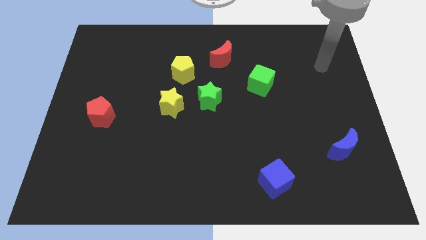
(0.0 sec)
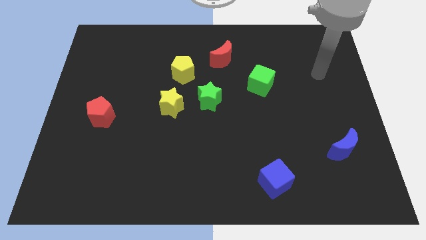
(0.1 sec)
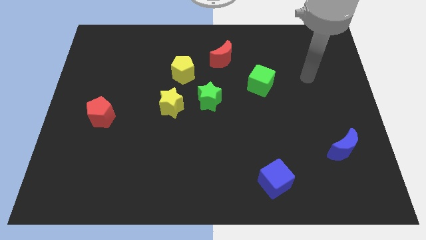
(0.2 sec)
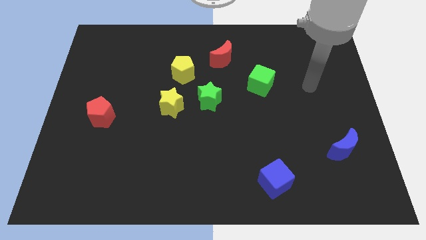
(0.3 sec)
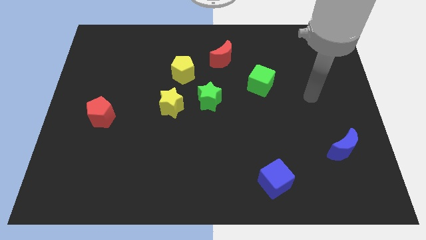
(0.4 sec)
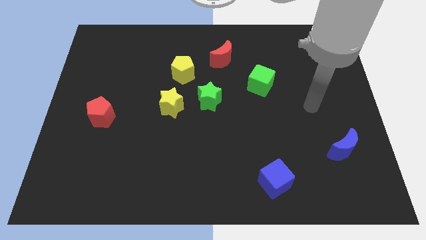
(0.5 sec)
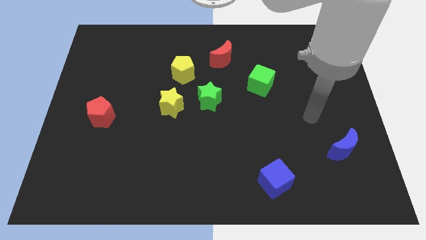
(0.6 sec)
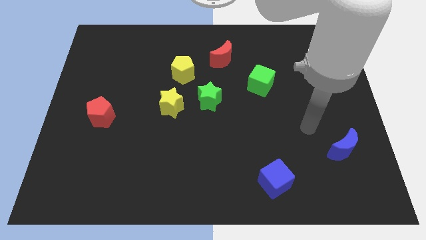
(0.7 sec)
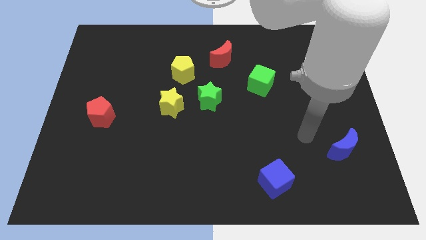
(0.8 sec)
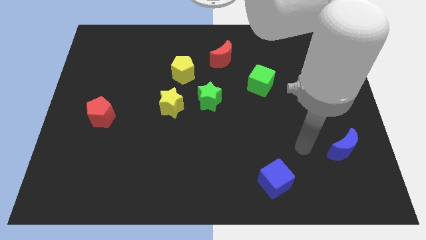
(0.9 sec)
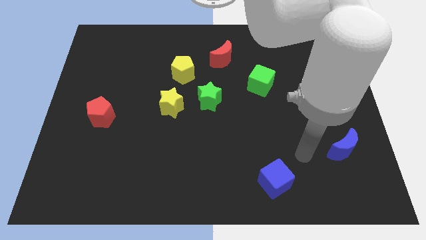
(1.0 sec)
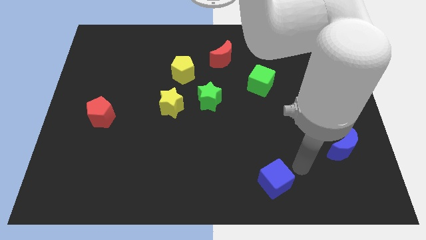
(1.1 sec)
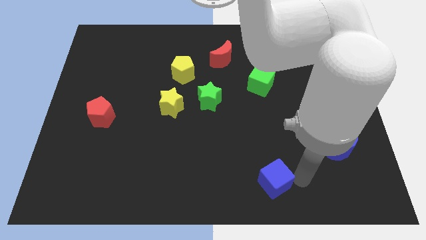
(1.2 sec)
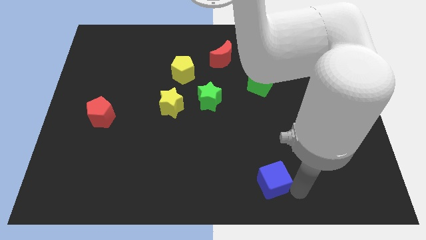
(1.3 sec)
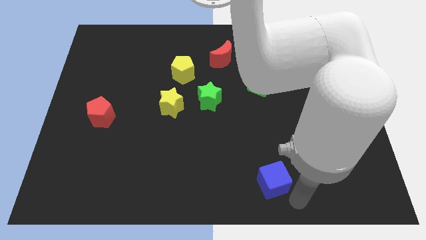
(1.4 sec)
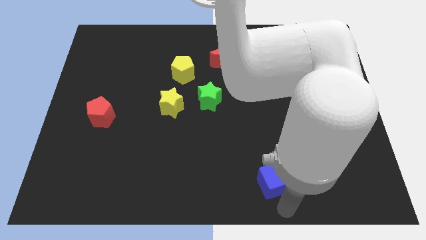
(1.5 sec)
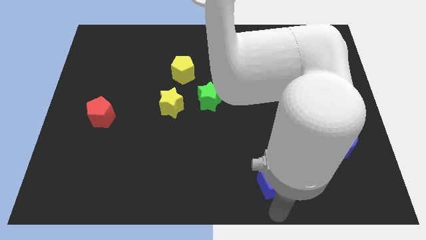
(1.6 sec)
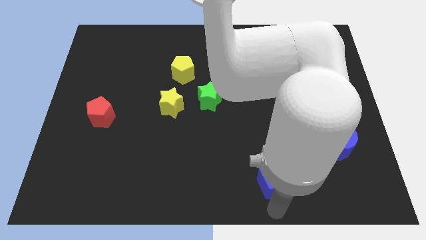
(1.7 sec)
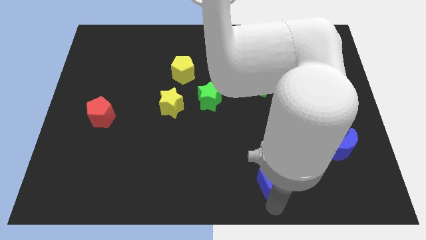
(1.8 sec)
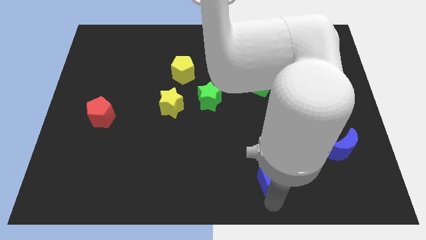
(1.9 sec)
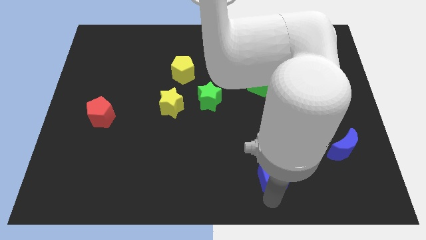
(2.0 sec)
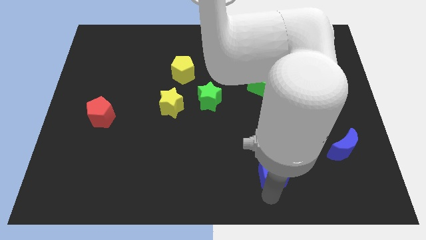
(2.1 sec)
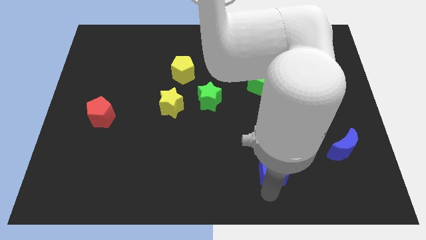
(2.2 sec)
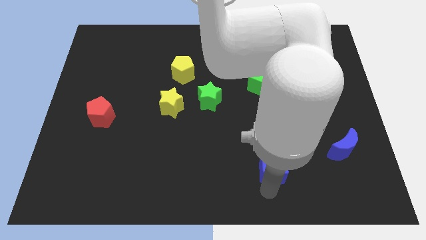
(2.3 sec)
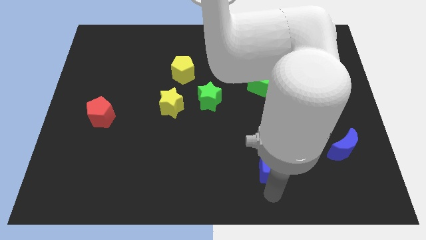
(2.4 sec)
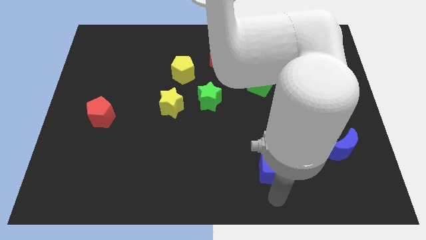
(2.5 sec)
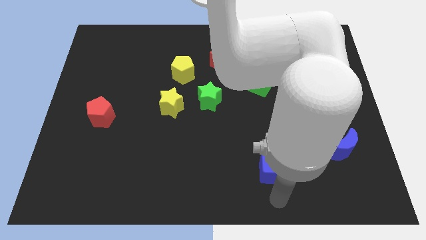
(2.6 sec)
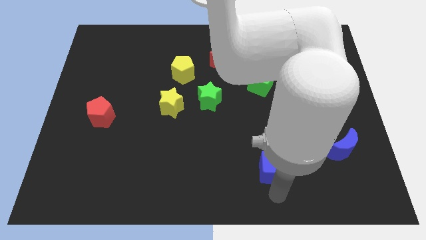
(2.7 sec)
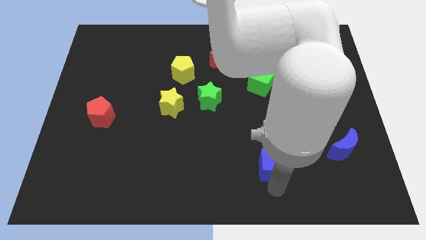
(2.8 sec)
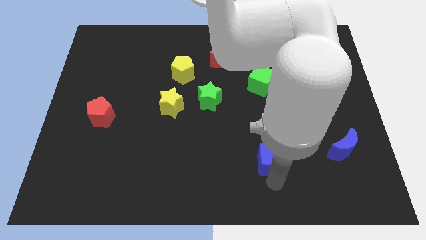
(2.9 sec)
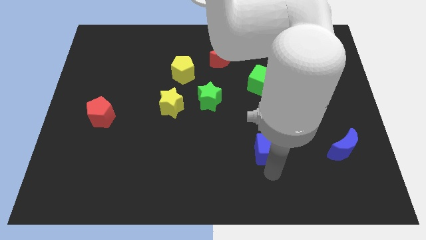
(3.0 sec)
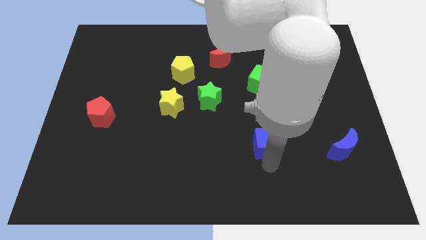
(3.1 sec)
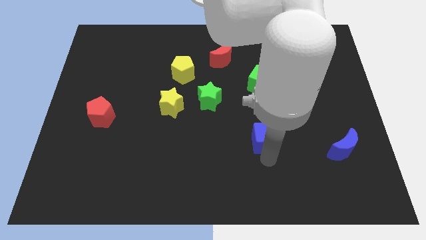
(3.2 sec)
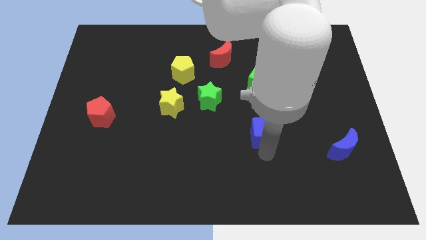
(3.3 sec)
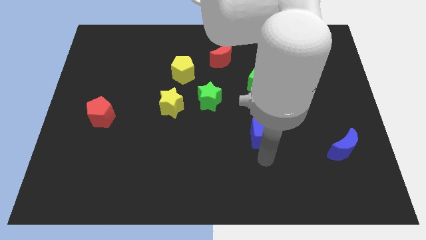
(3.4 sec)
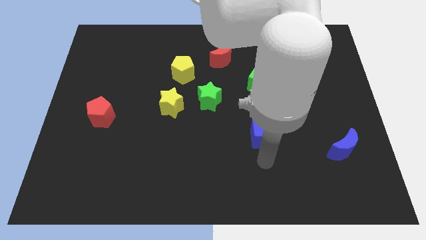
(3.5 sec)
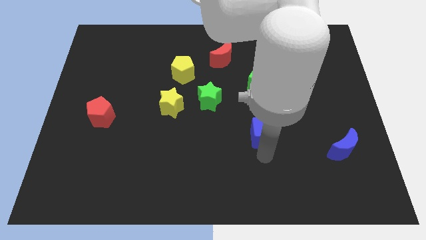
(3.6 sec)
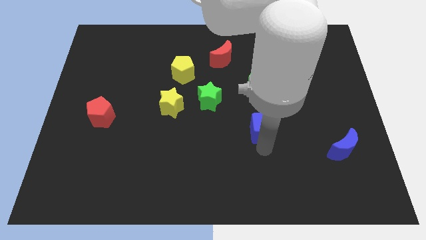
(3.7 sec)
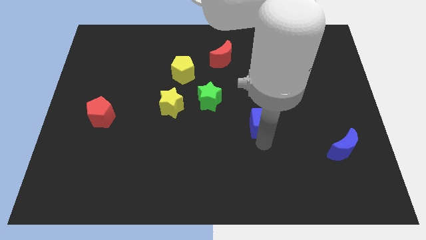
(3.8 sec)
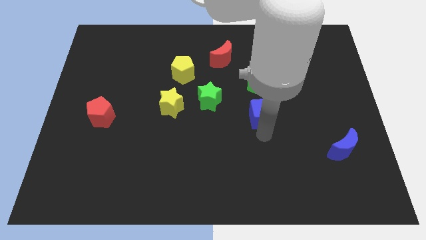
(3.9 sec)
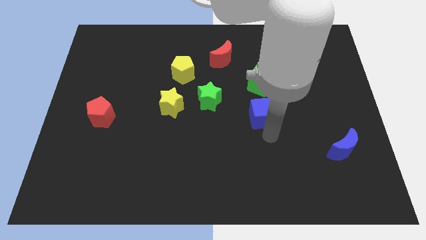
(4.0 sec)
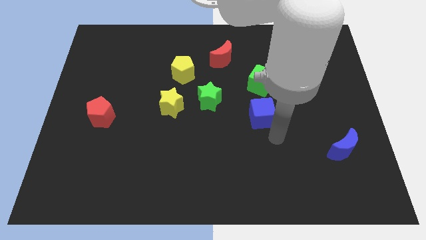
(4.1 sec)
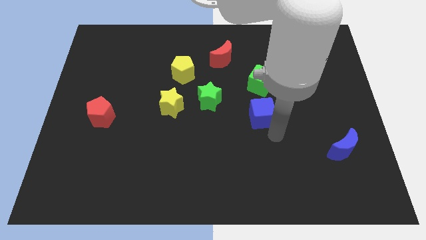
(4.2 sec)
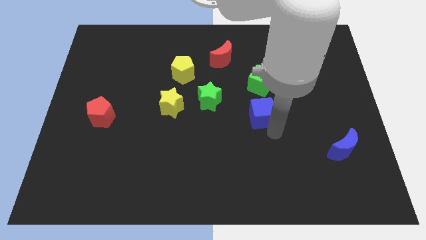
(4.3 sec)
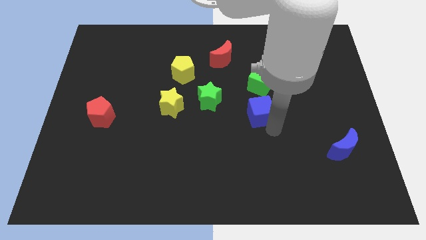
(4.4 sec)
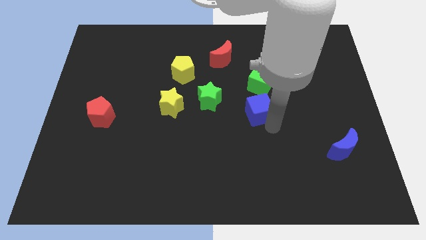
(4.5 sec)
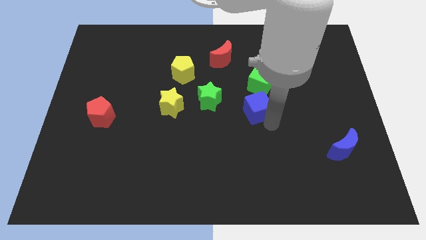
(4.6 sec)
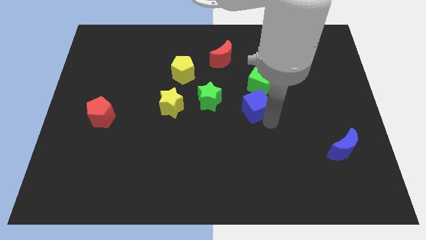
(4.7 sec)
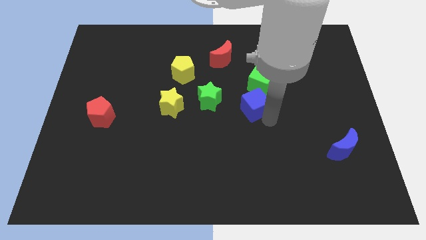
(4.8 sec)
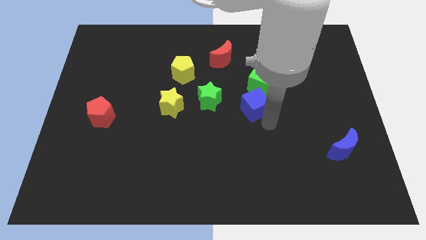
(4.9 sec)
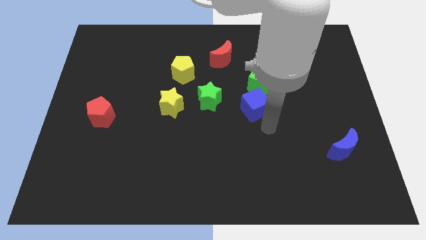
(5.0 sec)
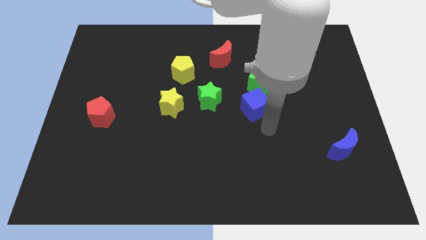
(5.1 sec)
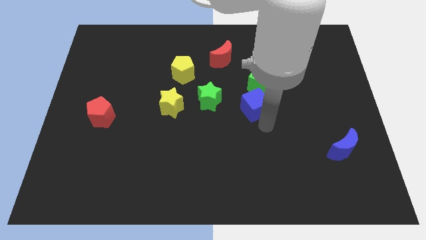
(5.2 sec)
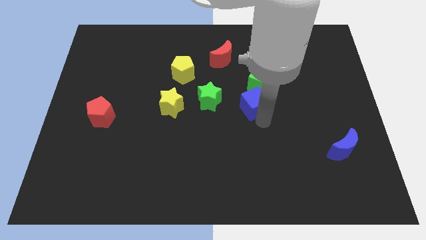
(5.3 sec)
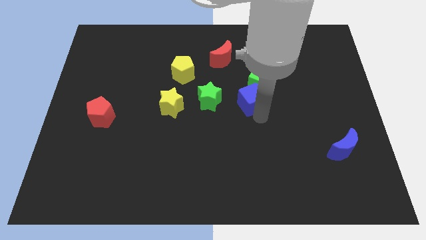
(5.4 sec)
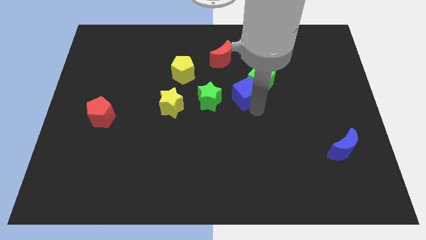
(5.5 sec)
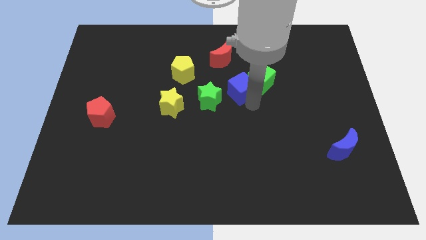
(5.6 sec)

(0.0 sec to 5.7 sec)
push the blue cube to the top right side of the green star

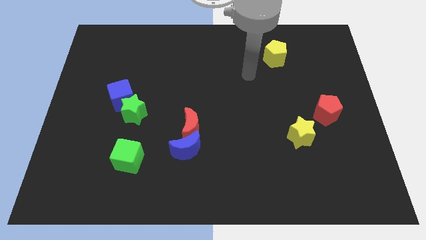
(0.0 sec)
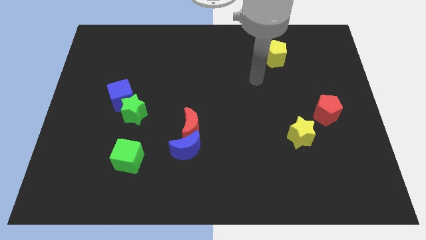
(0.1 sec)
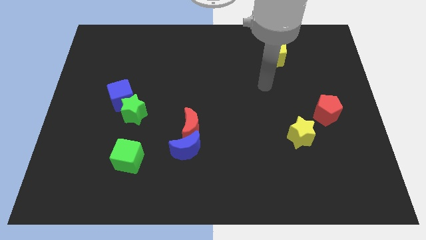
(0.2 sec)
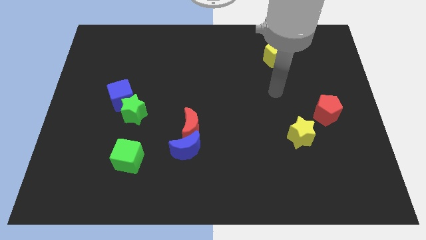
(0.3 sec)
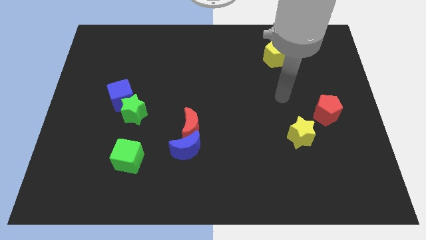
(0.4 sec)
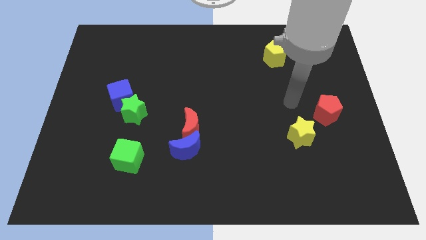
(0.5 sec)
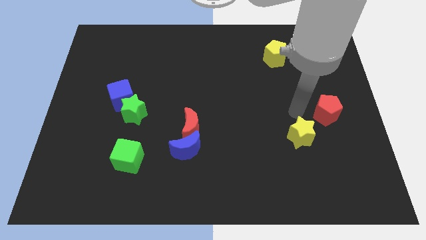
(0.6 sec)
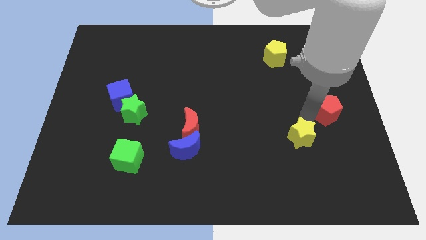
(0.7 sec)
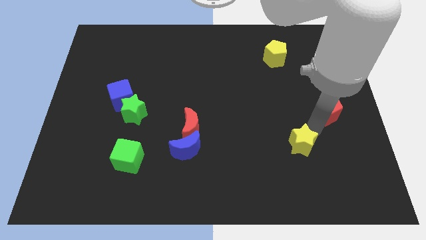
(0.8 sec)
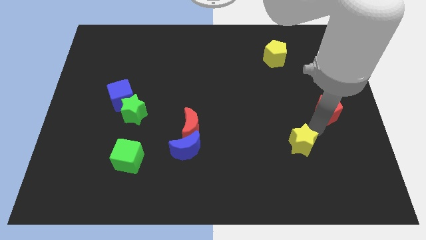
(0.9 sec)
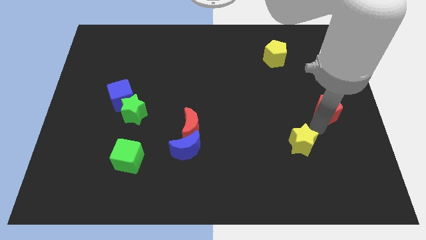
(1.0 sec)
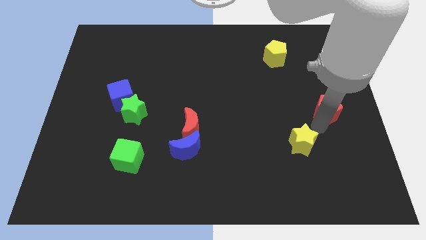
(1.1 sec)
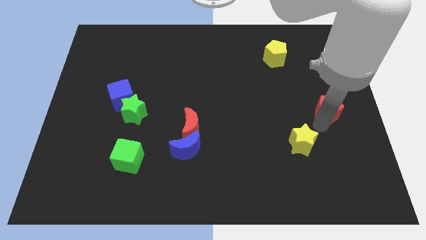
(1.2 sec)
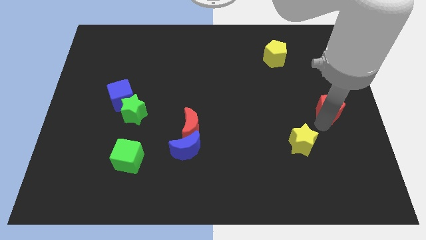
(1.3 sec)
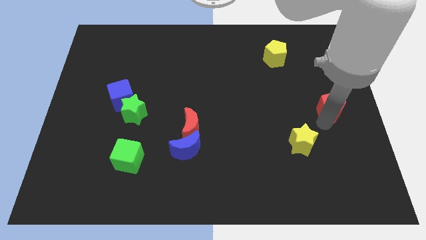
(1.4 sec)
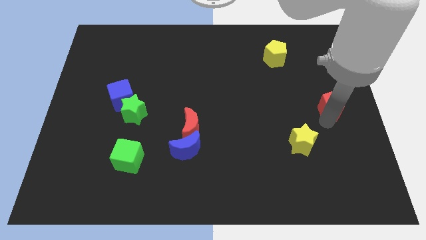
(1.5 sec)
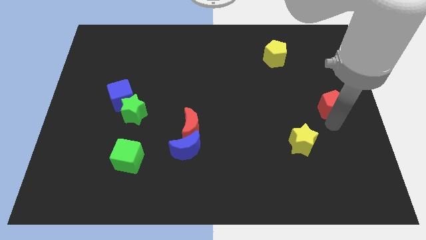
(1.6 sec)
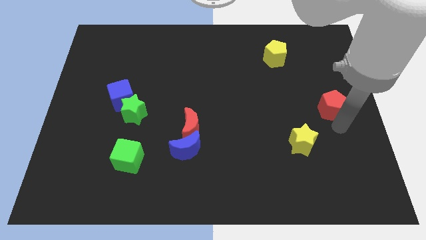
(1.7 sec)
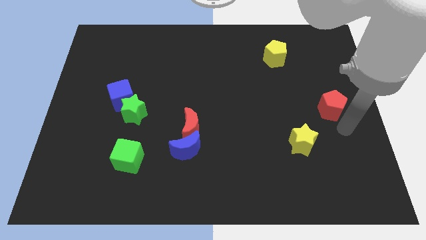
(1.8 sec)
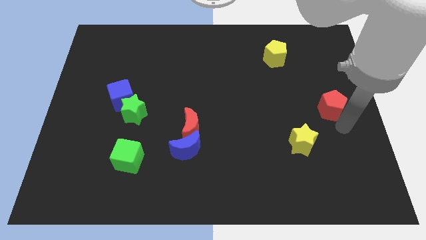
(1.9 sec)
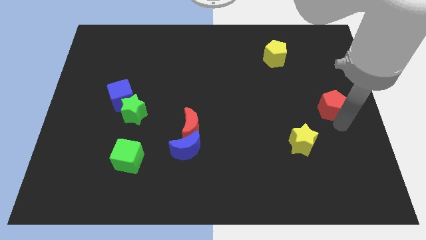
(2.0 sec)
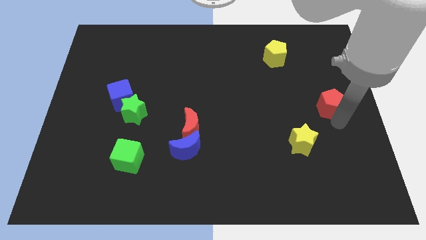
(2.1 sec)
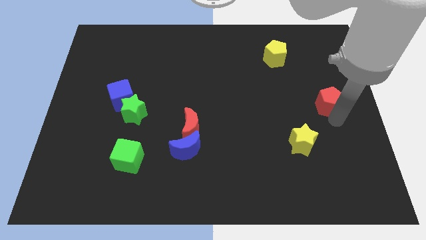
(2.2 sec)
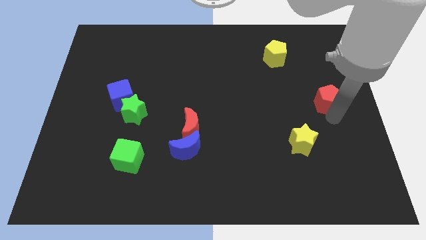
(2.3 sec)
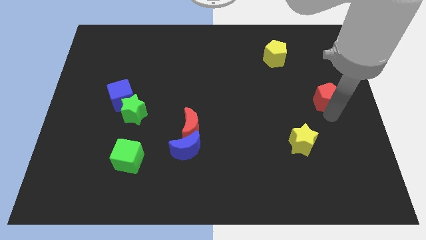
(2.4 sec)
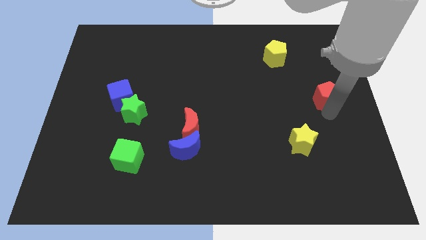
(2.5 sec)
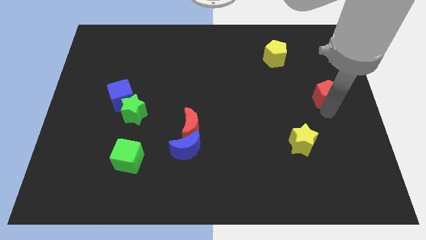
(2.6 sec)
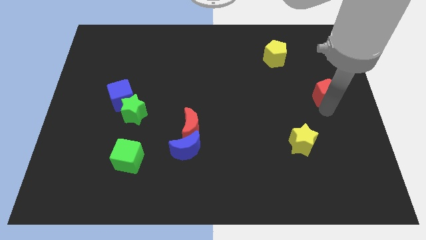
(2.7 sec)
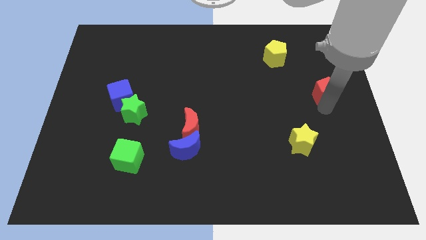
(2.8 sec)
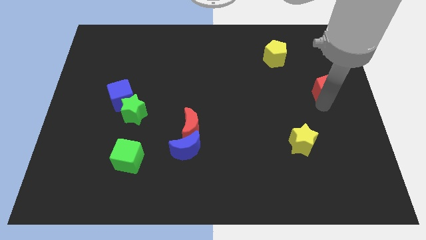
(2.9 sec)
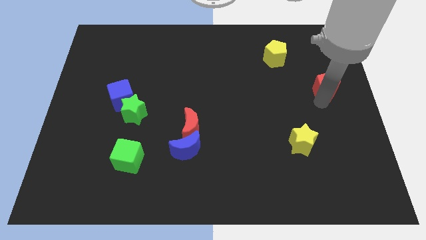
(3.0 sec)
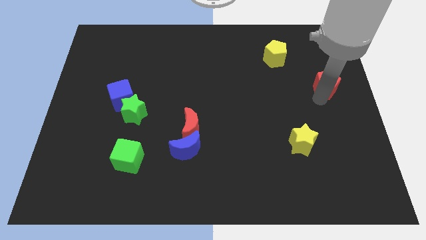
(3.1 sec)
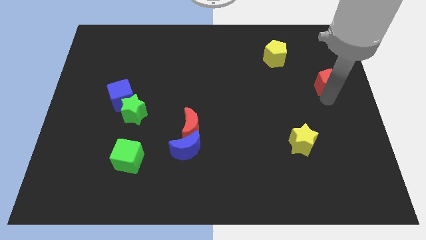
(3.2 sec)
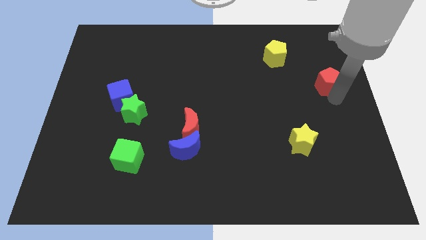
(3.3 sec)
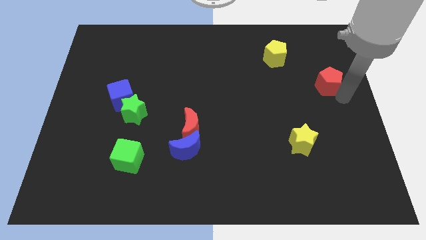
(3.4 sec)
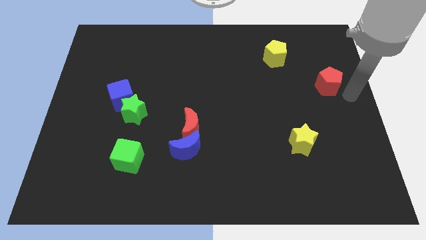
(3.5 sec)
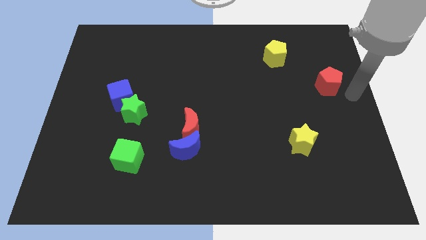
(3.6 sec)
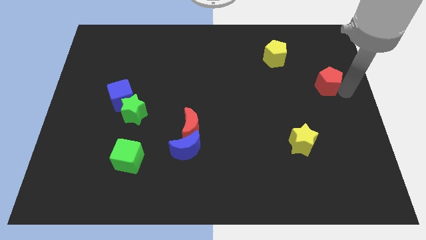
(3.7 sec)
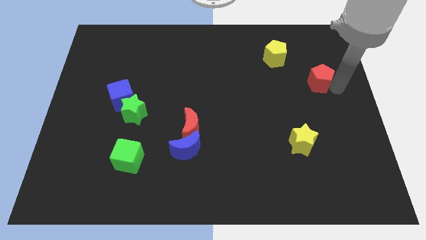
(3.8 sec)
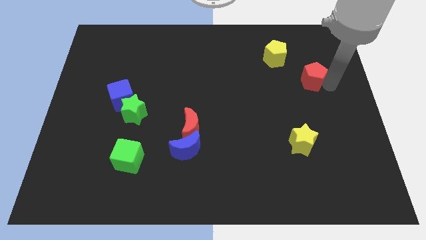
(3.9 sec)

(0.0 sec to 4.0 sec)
slide the red pentagon to the bottom right side of the yellow pentagon
